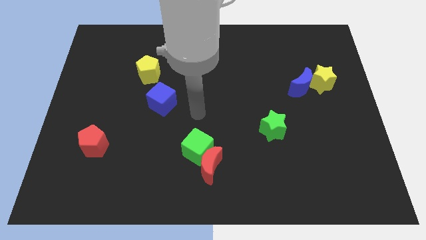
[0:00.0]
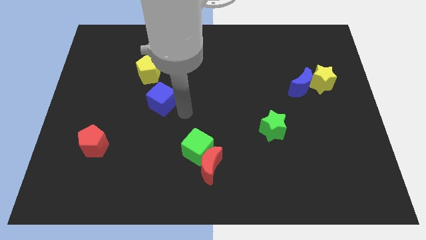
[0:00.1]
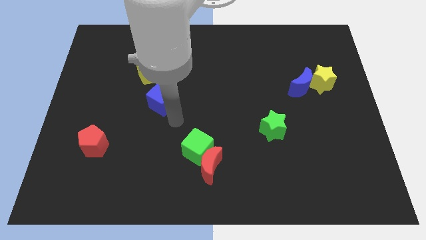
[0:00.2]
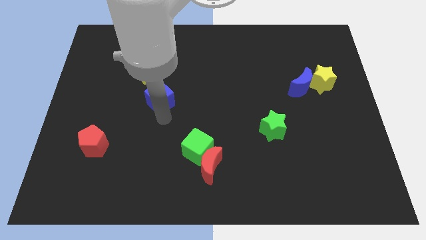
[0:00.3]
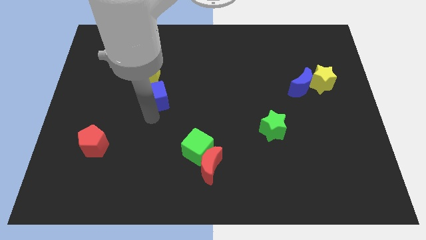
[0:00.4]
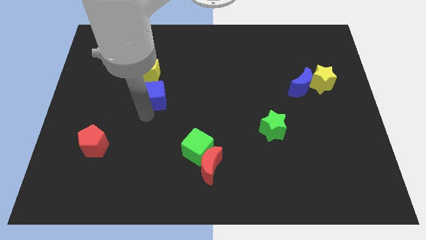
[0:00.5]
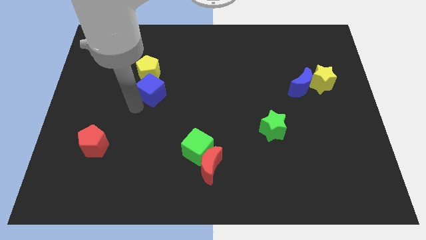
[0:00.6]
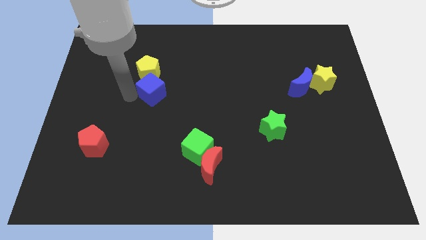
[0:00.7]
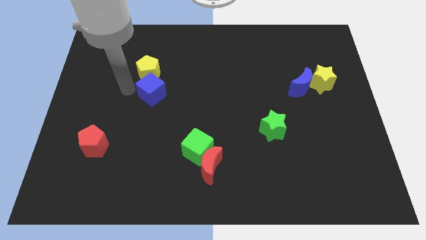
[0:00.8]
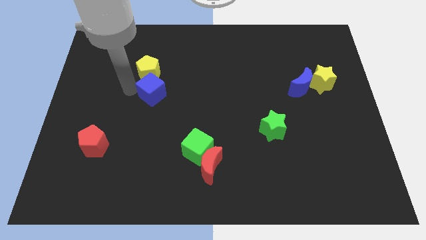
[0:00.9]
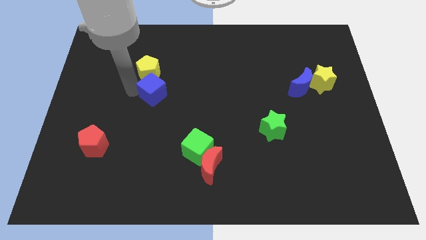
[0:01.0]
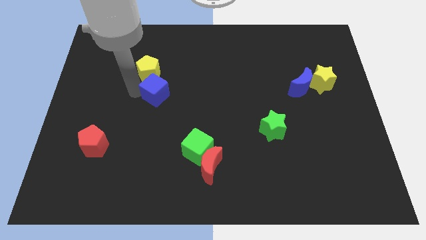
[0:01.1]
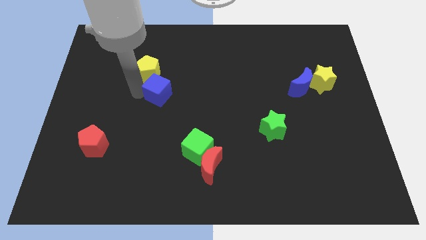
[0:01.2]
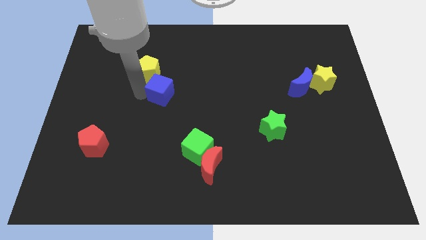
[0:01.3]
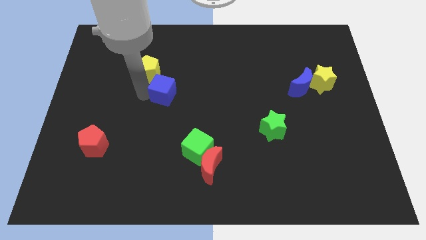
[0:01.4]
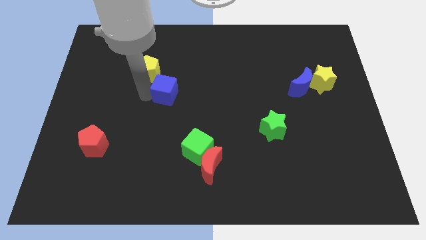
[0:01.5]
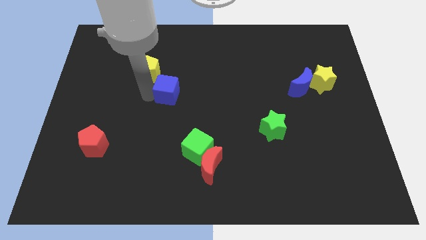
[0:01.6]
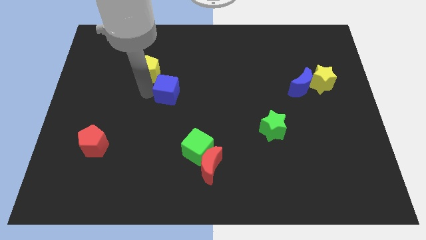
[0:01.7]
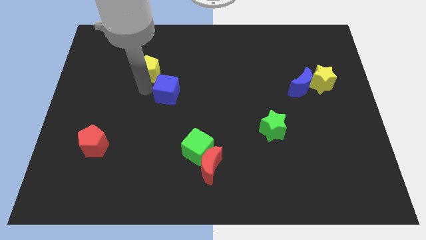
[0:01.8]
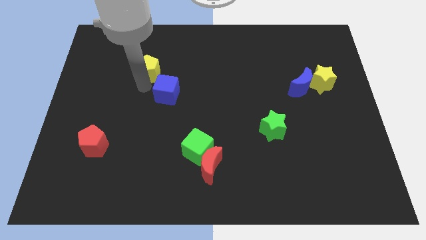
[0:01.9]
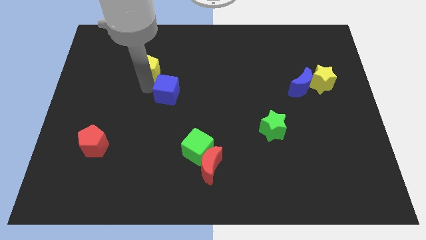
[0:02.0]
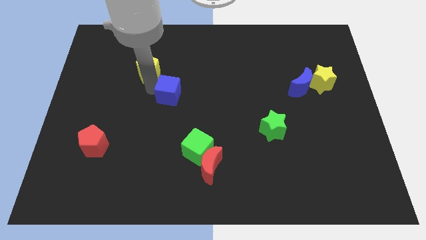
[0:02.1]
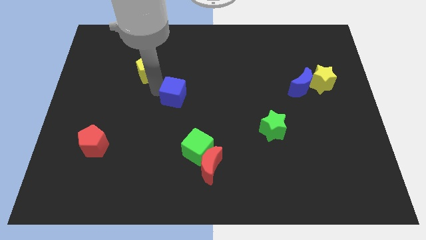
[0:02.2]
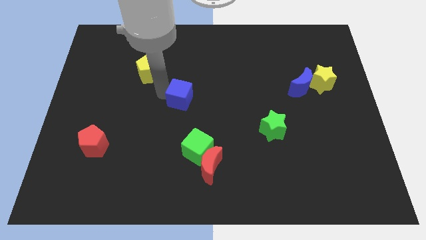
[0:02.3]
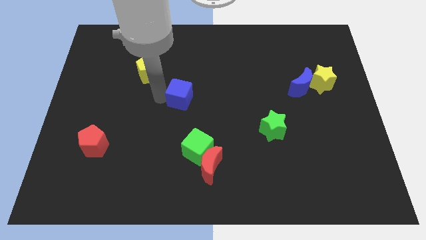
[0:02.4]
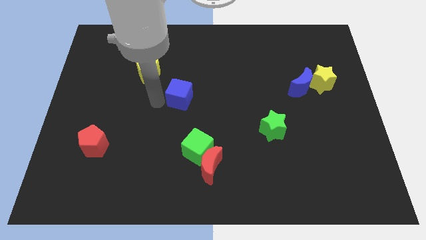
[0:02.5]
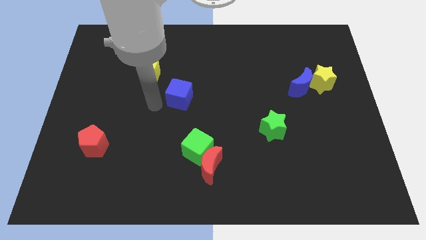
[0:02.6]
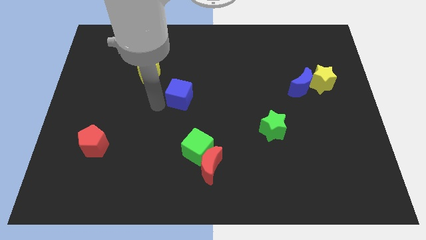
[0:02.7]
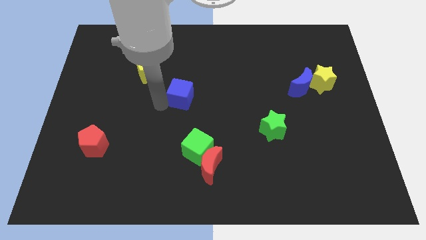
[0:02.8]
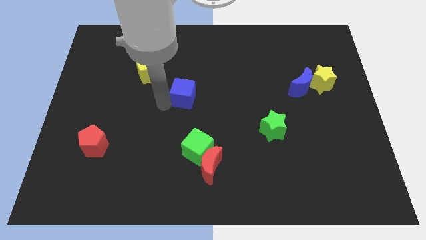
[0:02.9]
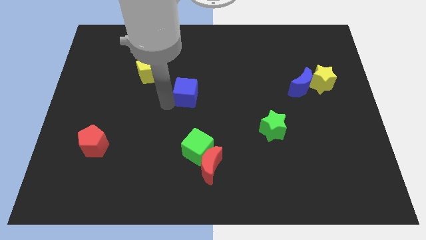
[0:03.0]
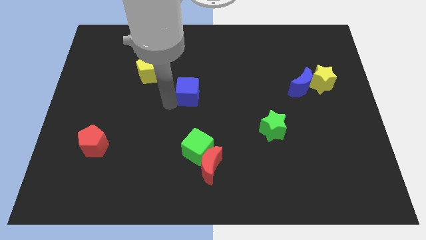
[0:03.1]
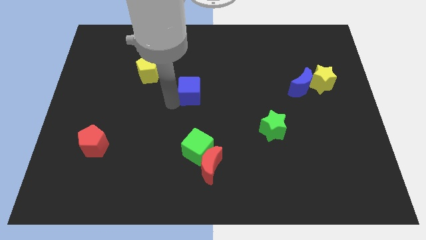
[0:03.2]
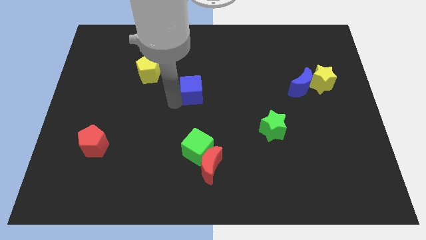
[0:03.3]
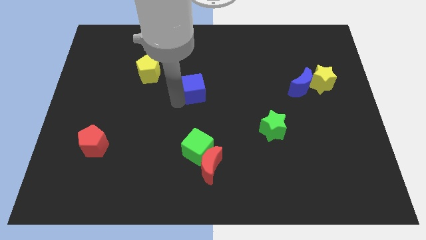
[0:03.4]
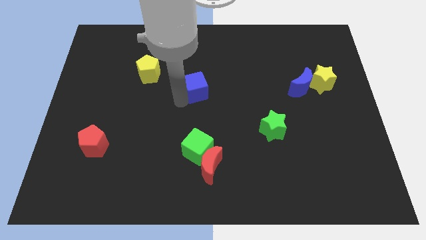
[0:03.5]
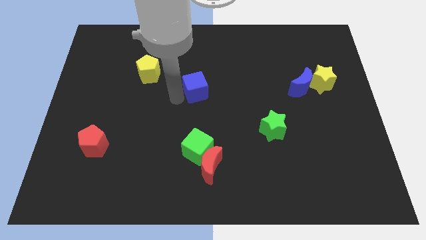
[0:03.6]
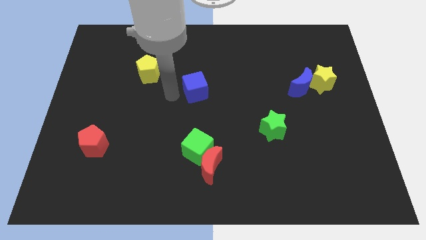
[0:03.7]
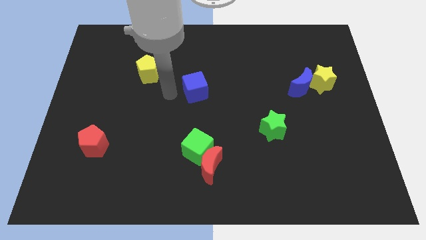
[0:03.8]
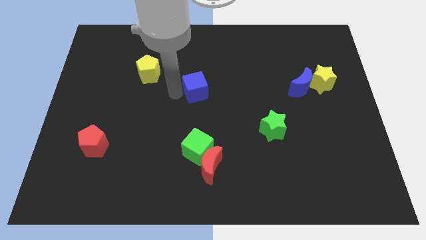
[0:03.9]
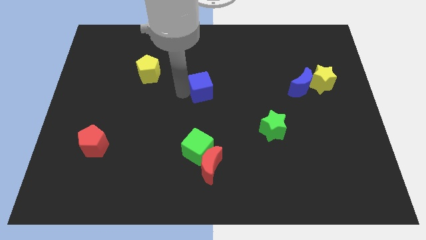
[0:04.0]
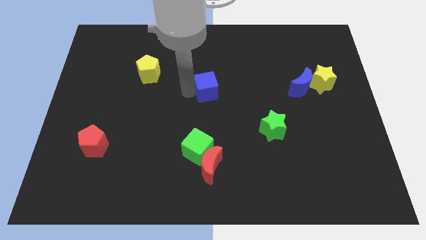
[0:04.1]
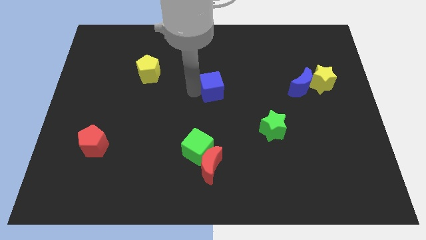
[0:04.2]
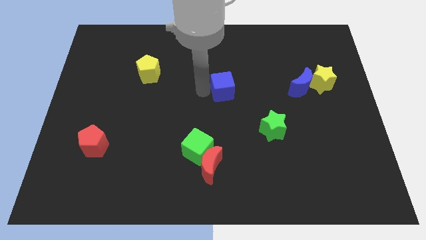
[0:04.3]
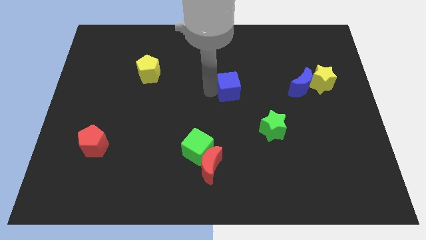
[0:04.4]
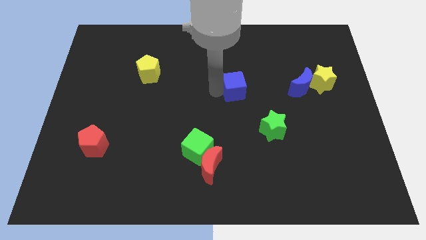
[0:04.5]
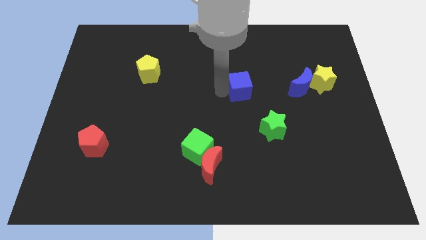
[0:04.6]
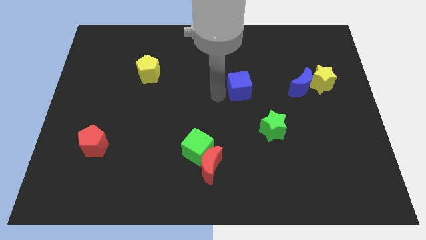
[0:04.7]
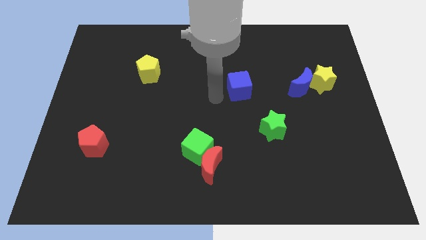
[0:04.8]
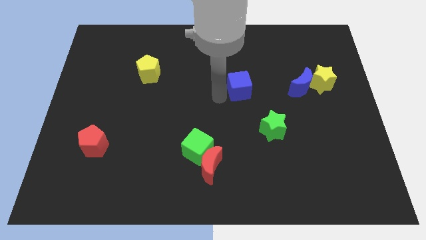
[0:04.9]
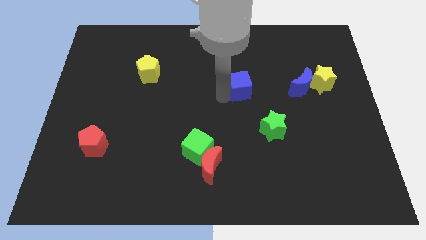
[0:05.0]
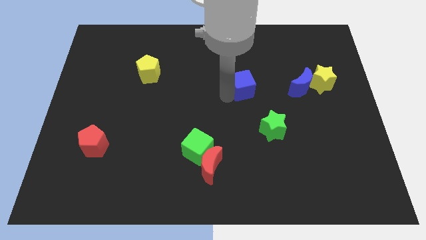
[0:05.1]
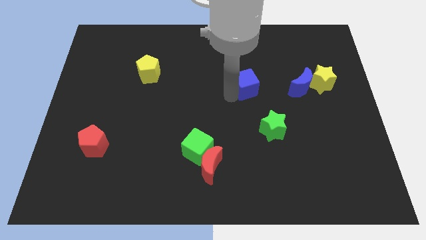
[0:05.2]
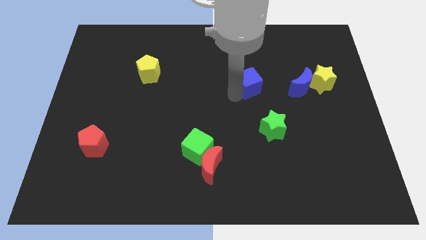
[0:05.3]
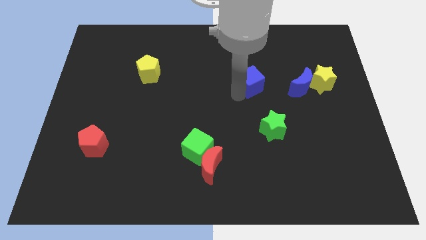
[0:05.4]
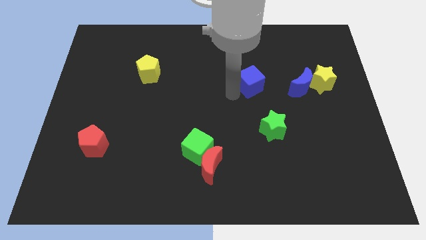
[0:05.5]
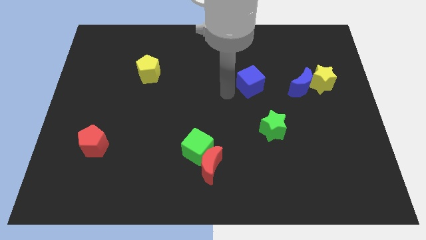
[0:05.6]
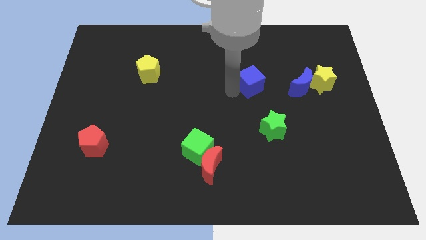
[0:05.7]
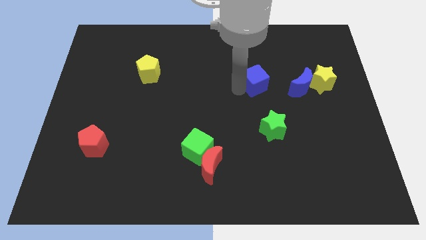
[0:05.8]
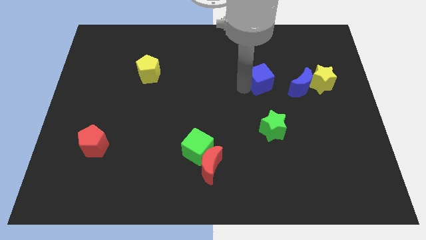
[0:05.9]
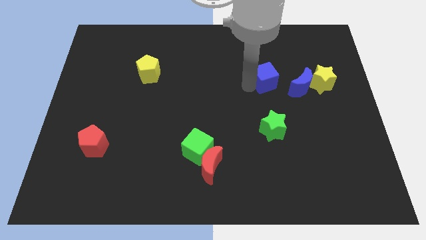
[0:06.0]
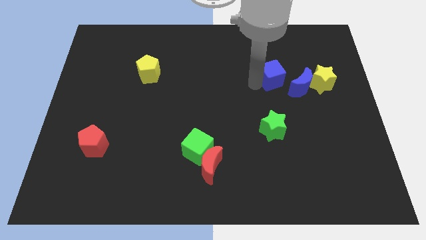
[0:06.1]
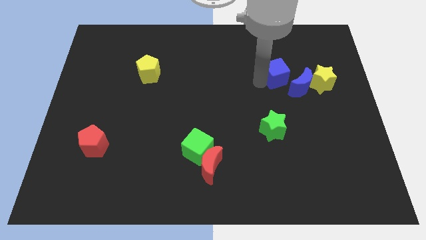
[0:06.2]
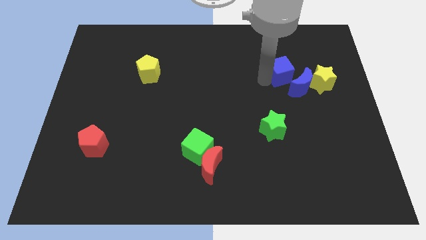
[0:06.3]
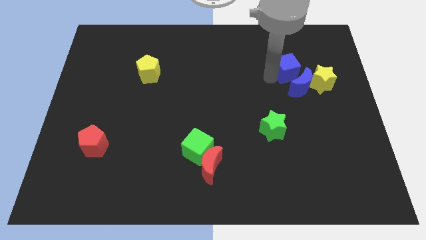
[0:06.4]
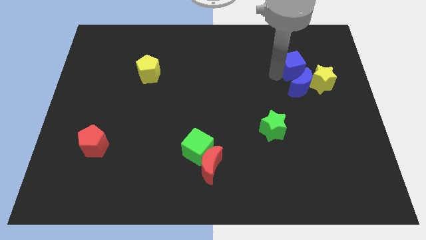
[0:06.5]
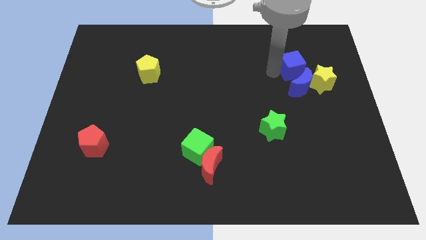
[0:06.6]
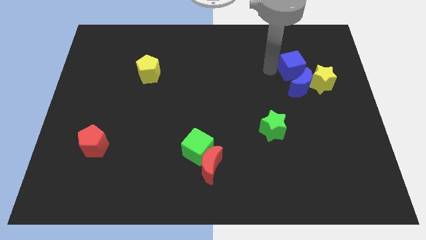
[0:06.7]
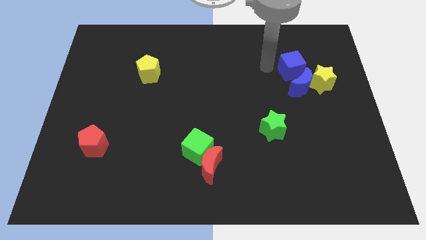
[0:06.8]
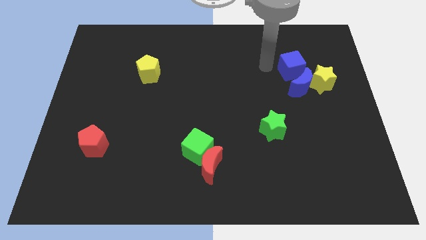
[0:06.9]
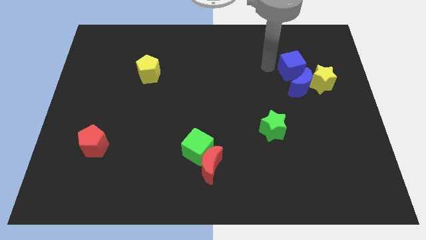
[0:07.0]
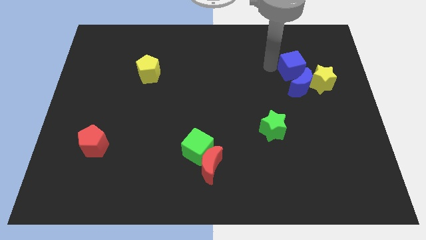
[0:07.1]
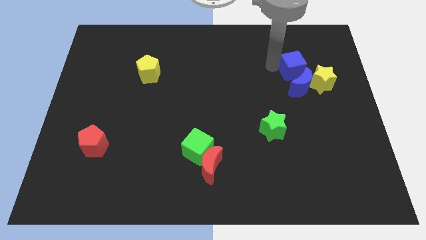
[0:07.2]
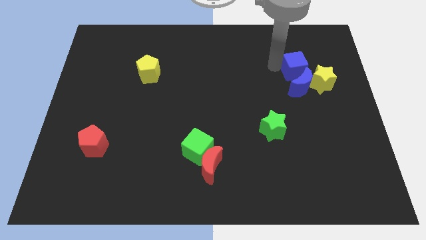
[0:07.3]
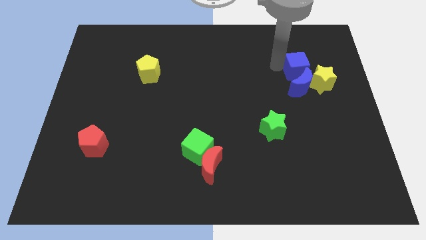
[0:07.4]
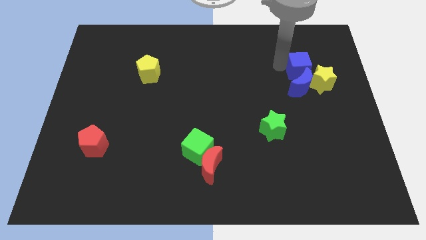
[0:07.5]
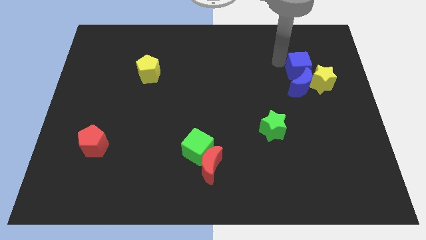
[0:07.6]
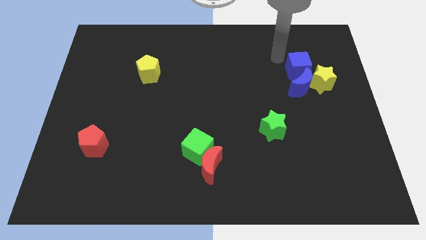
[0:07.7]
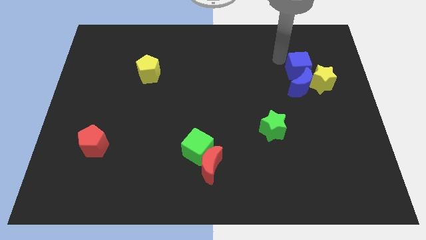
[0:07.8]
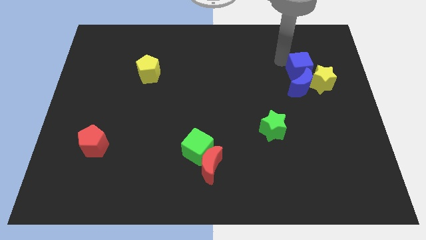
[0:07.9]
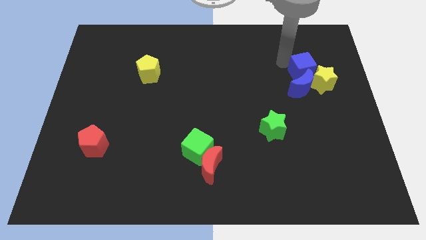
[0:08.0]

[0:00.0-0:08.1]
put the blue cube towards the yellow star
